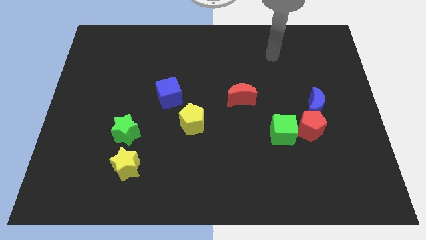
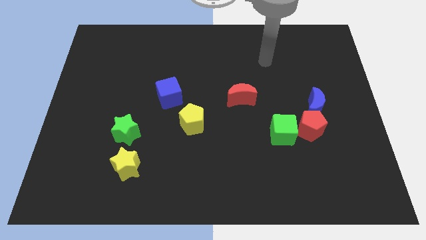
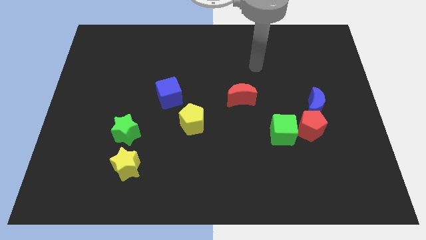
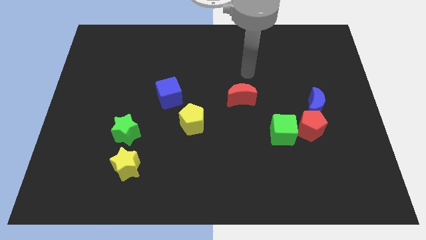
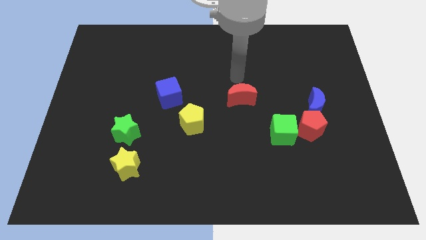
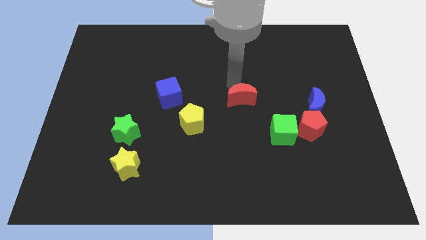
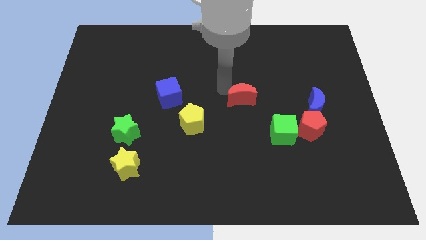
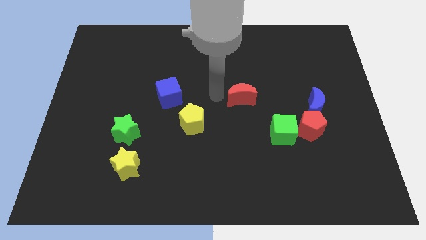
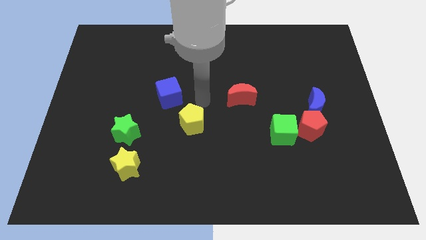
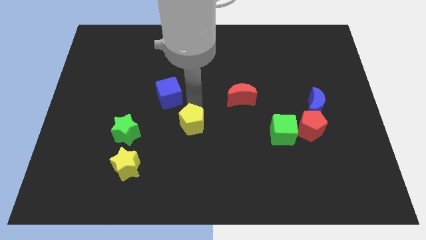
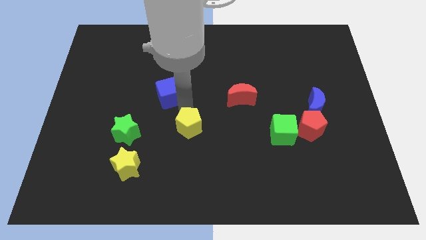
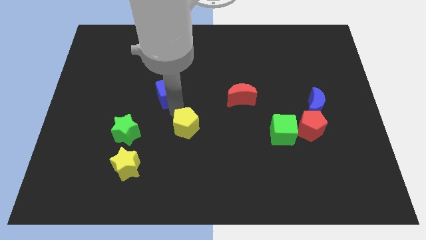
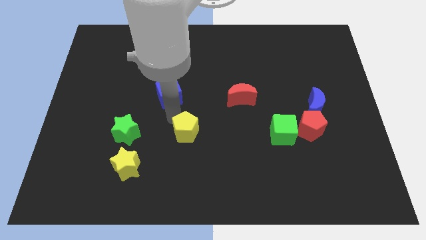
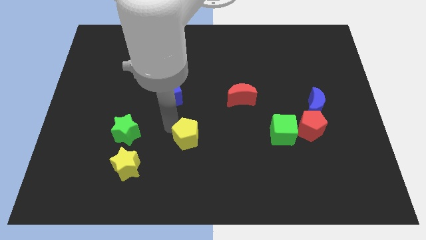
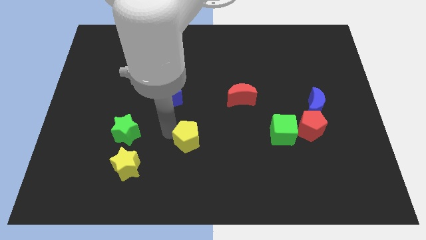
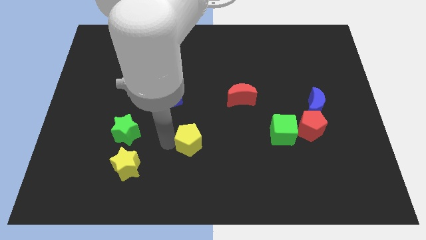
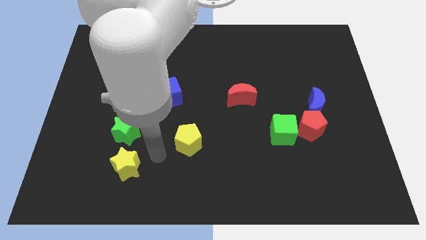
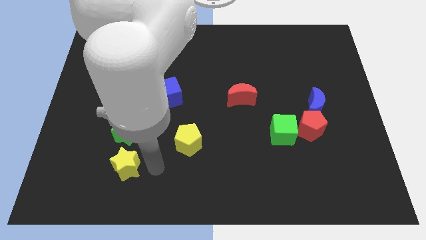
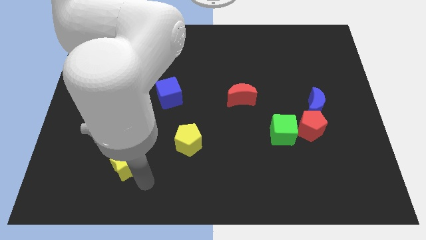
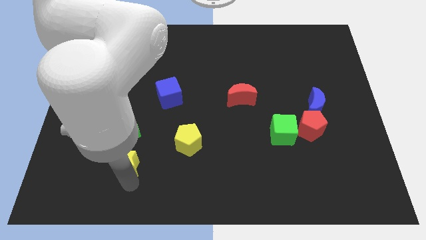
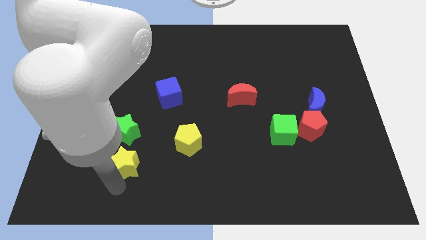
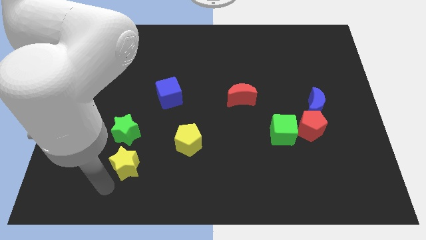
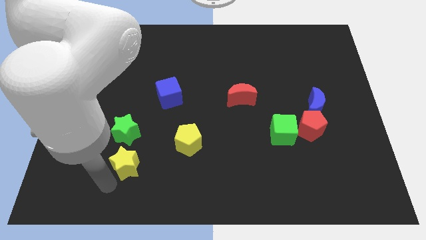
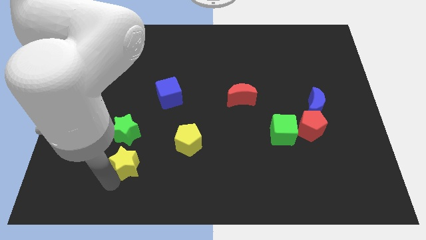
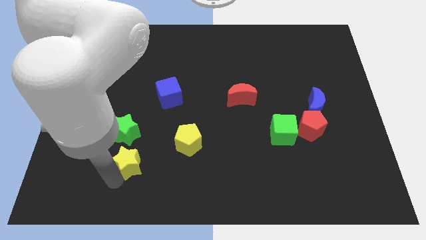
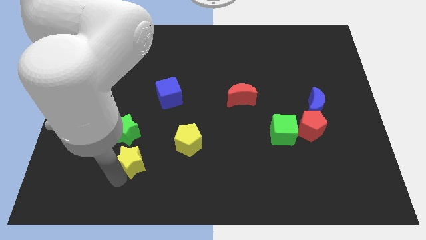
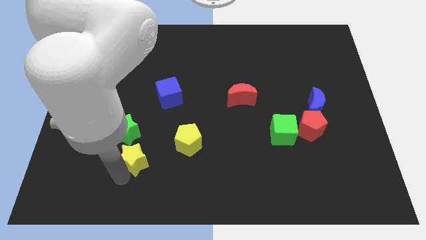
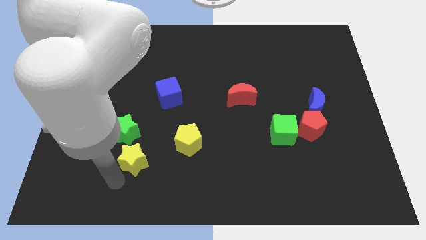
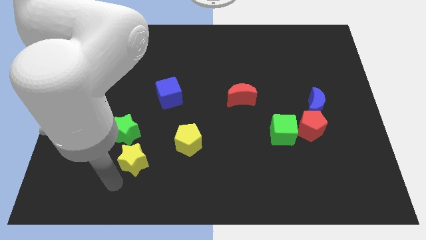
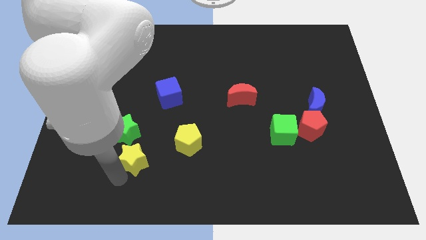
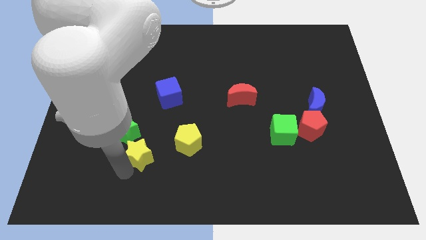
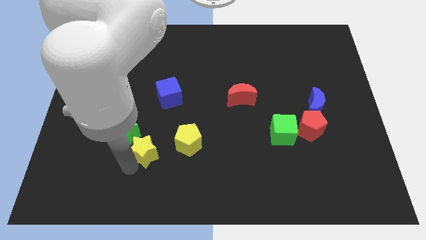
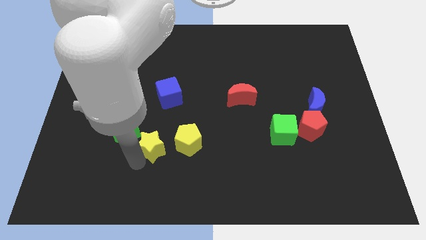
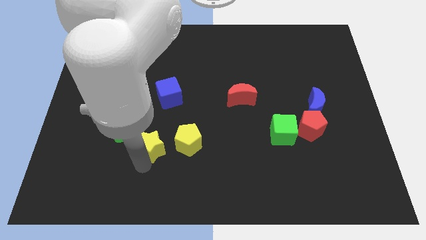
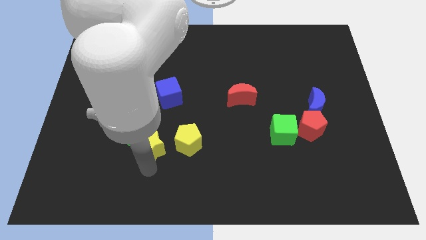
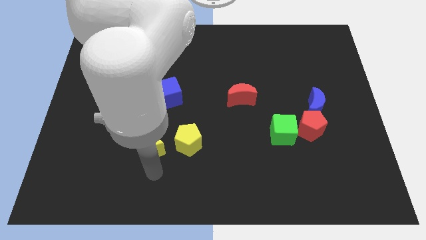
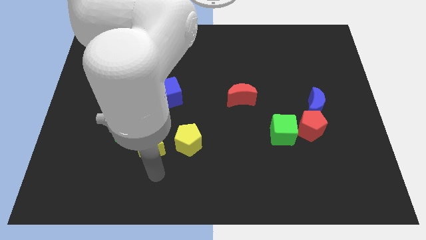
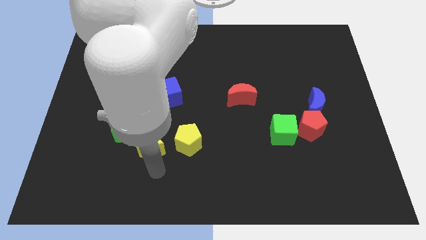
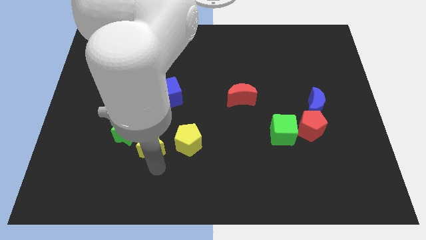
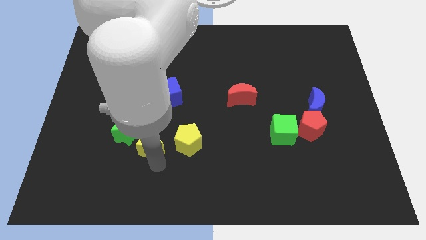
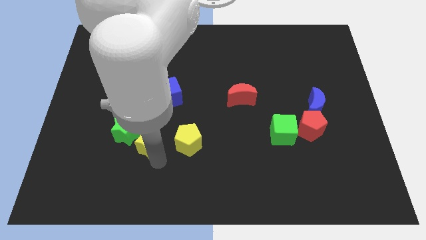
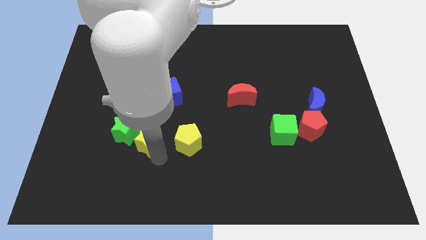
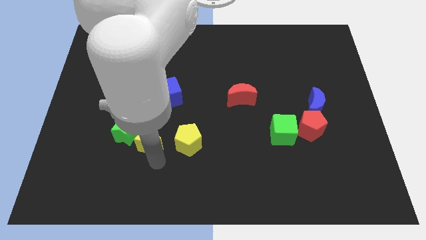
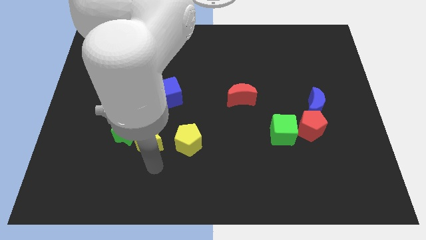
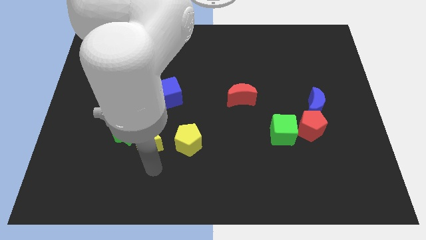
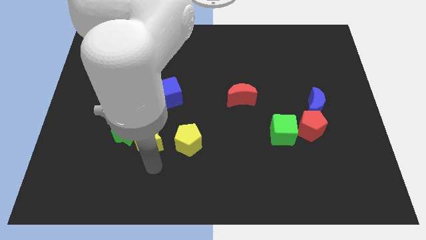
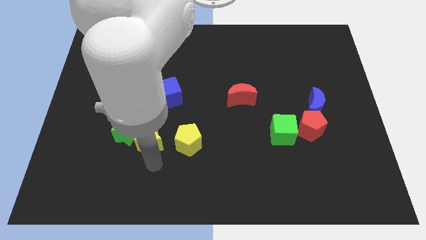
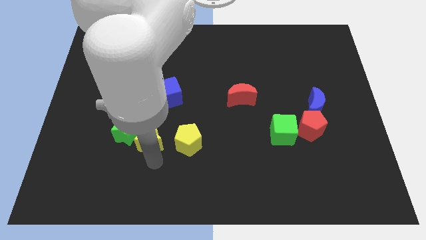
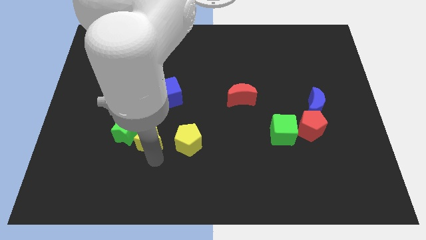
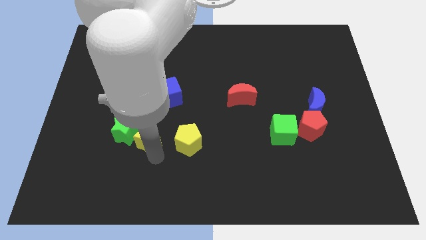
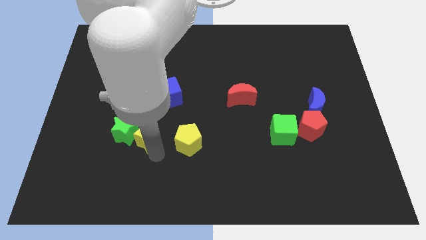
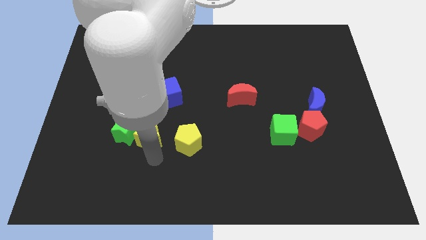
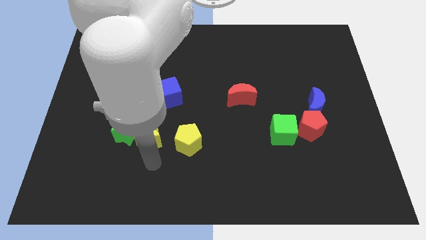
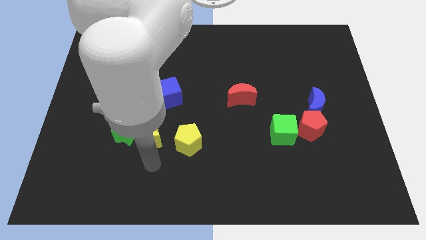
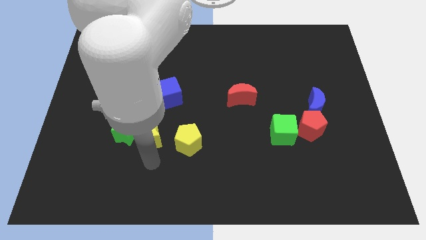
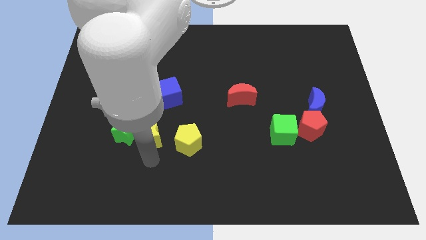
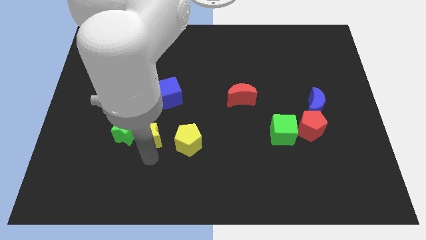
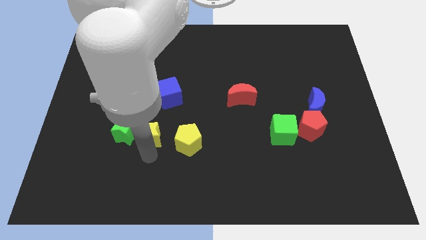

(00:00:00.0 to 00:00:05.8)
move the yellow star up slightly

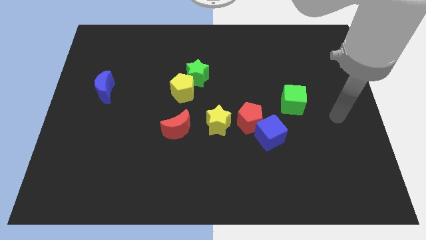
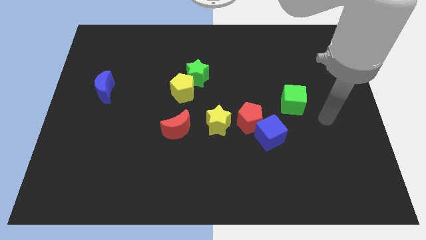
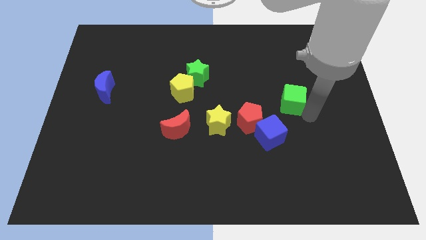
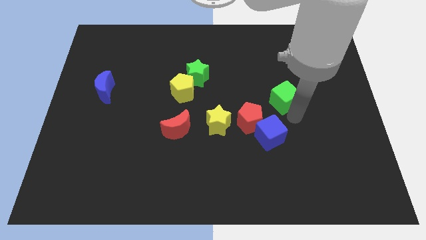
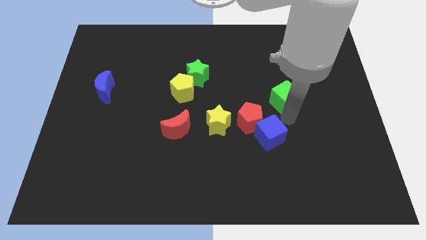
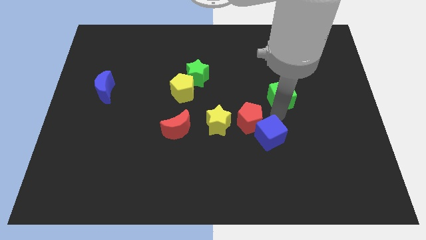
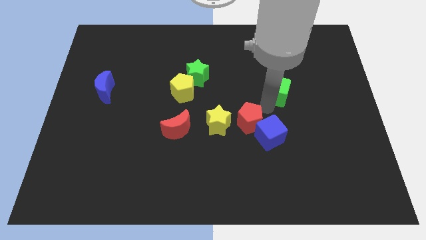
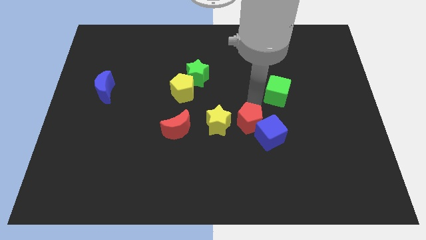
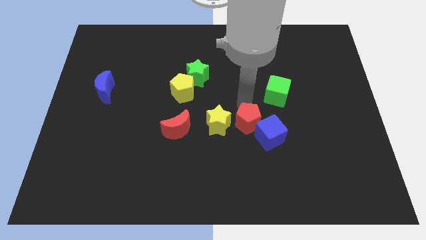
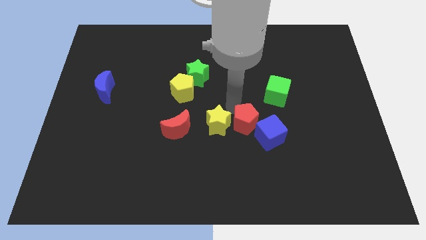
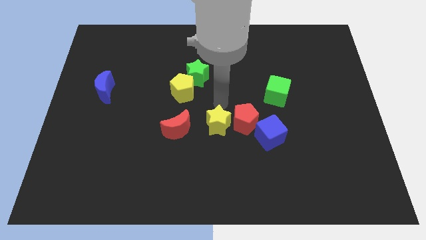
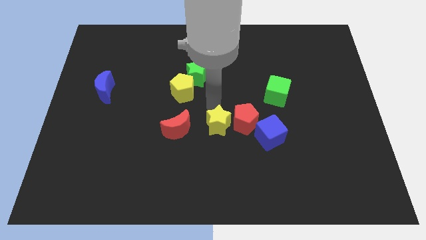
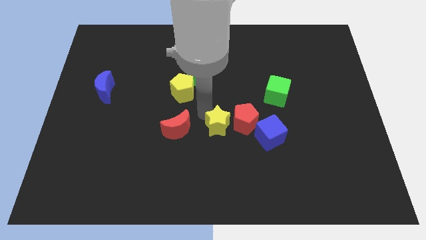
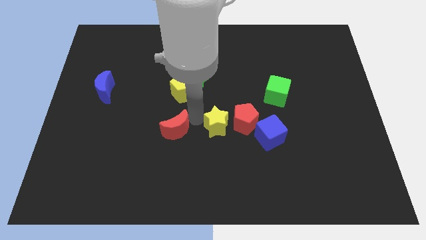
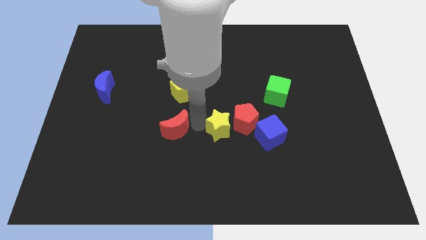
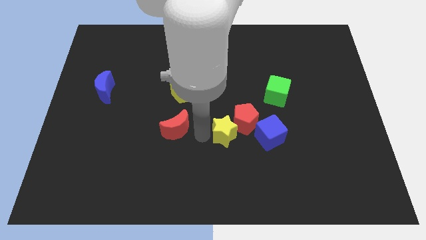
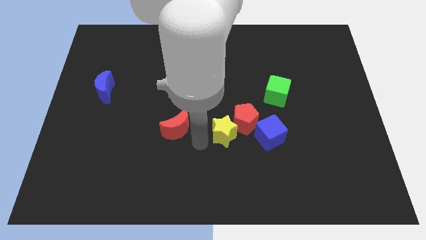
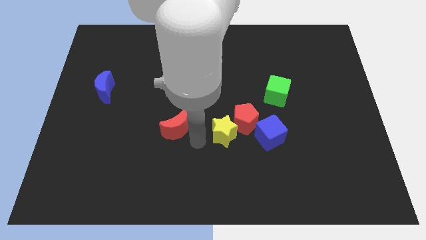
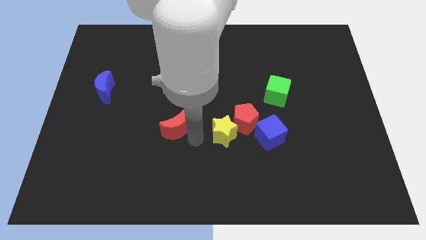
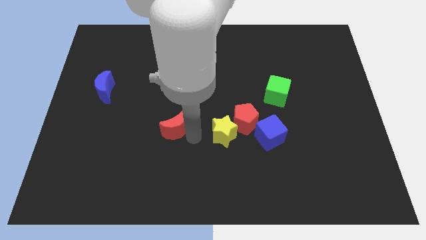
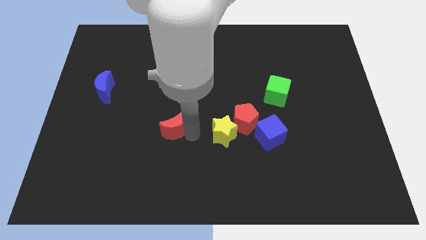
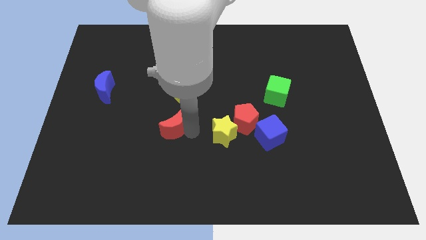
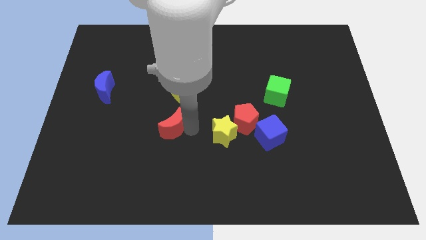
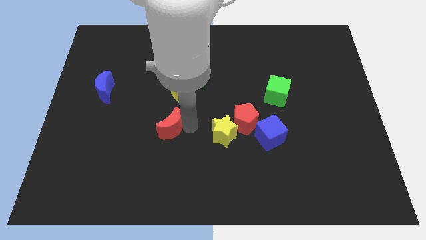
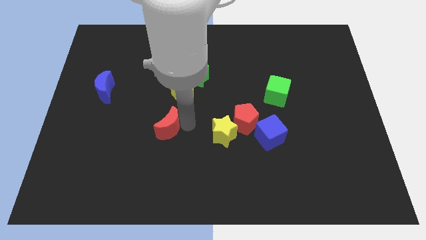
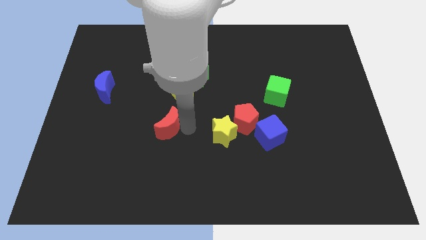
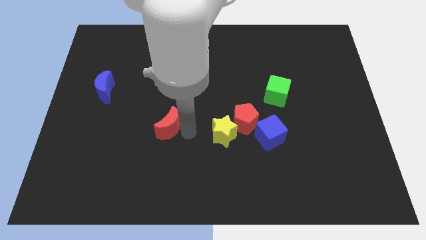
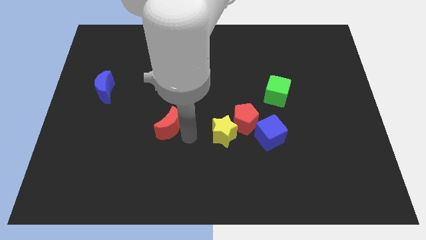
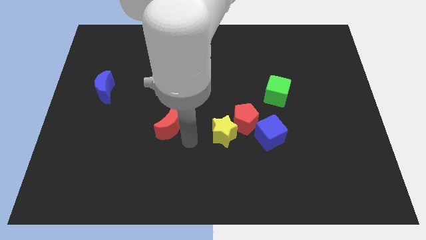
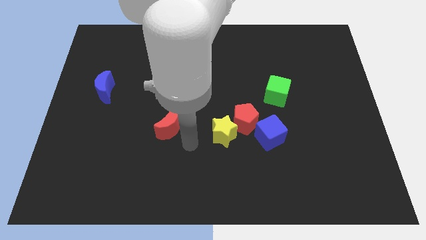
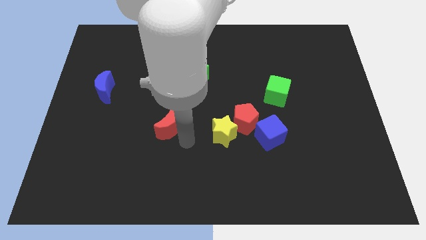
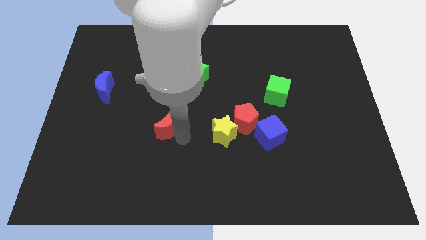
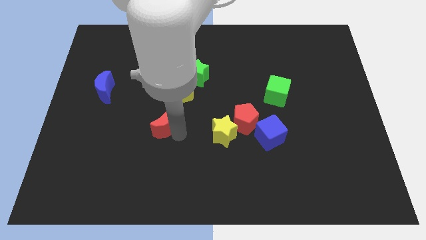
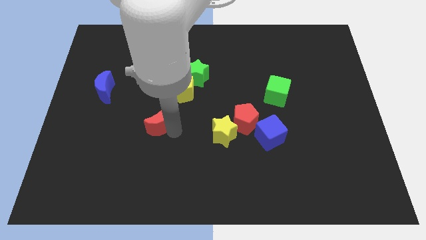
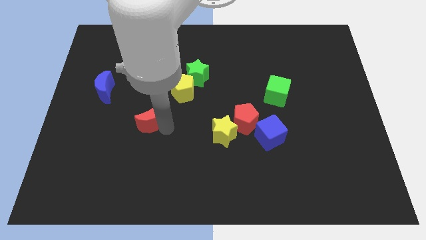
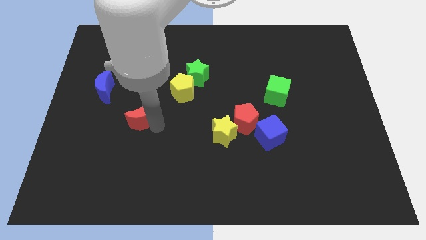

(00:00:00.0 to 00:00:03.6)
slightly move the red moon upwards and left diagonally
